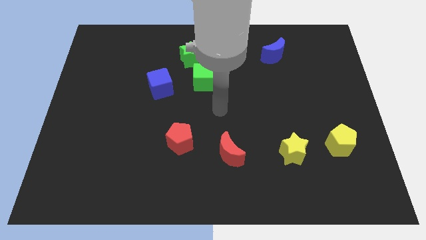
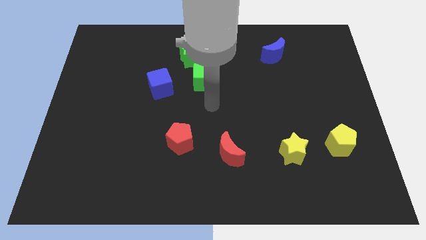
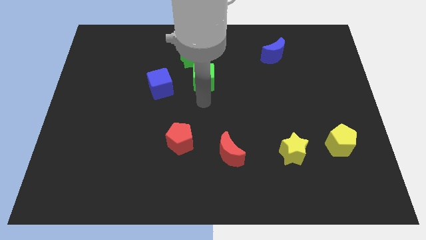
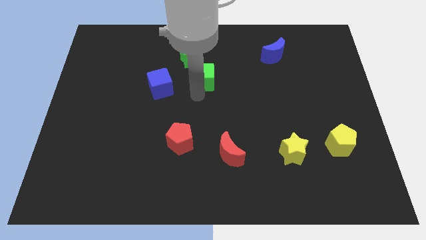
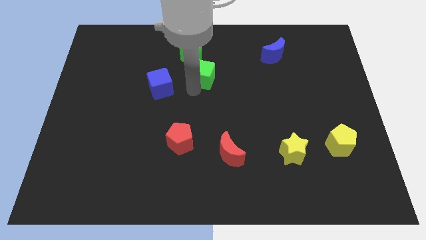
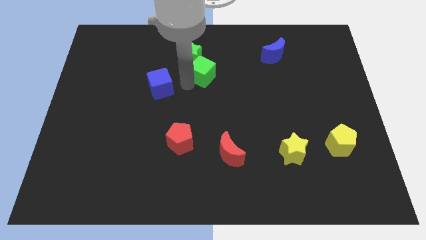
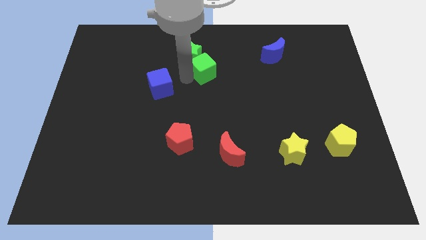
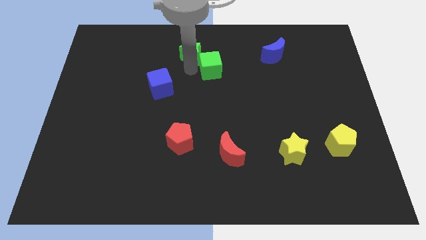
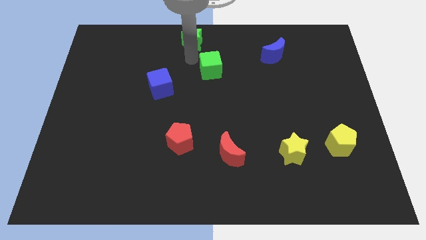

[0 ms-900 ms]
pull the green cube apart from the green star

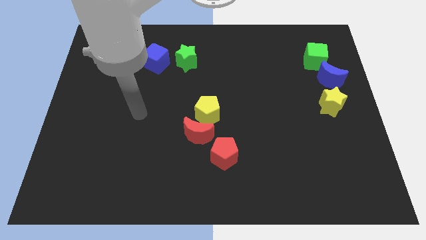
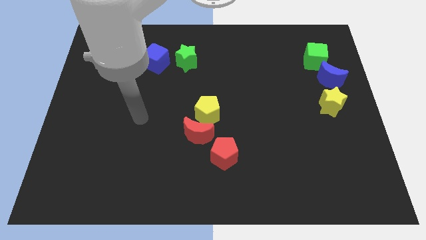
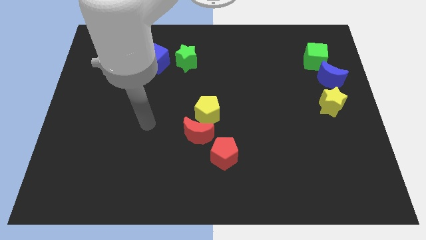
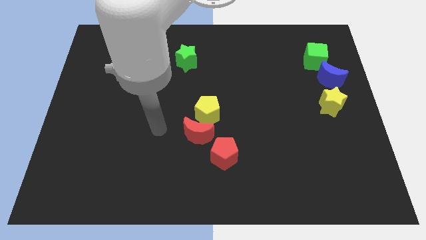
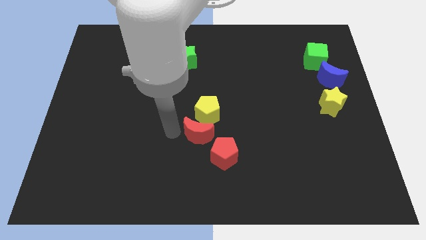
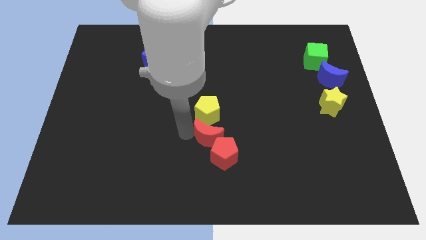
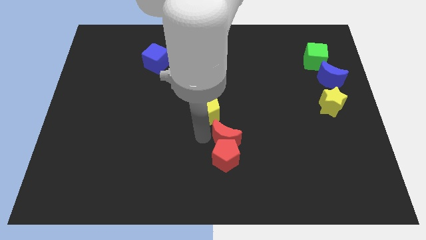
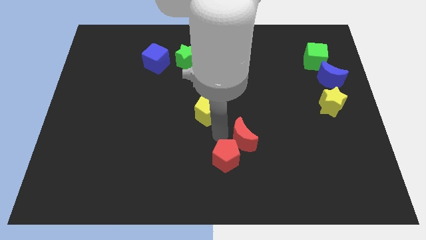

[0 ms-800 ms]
separate the yellow pentagon from the red moon

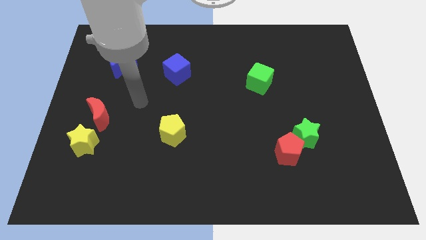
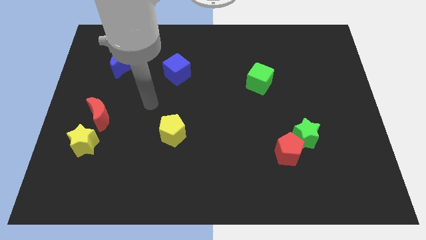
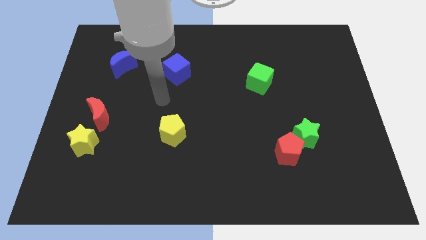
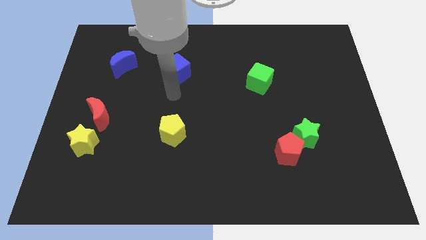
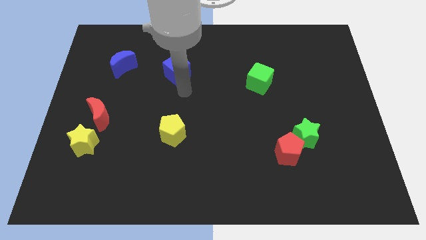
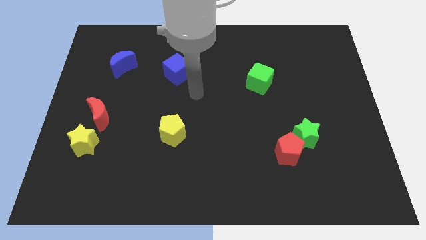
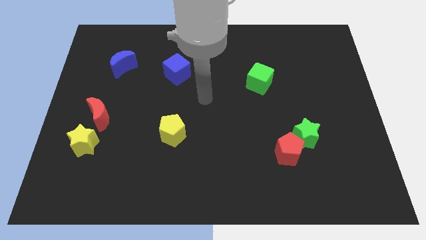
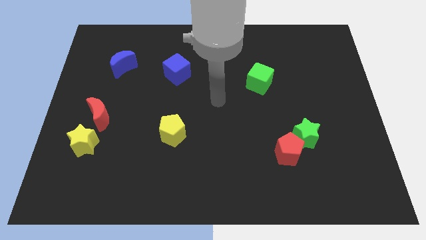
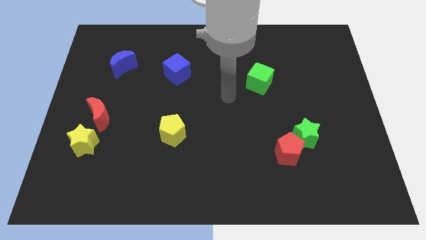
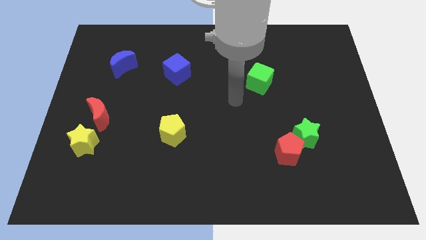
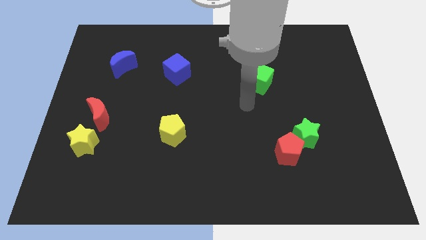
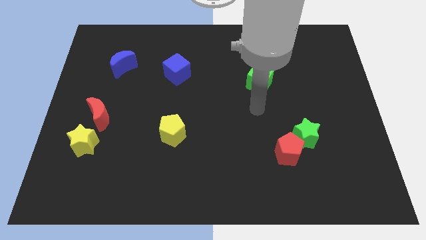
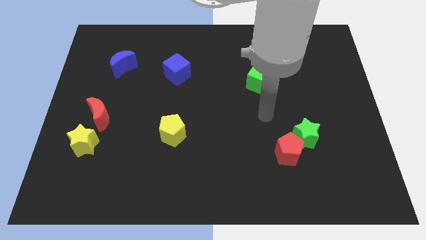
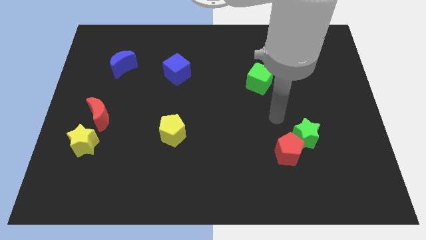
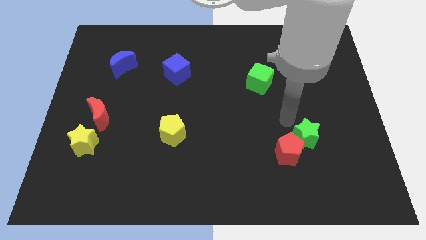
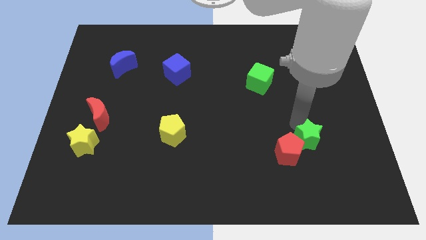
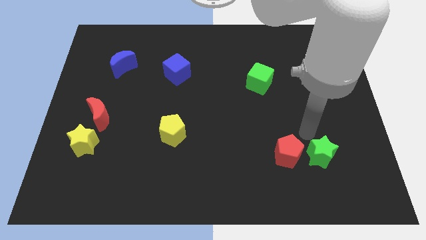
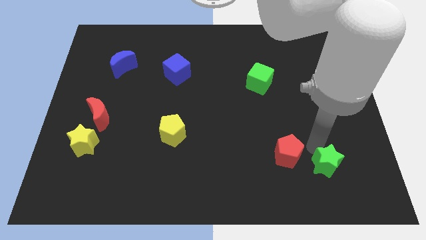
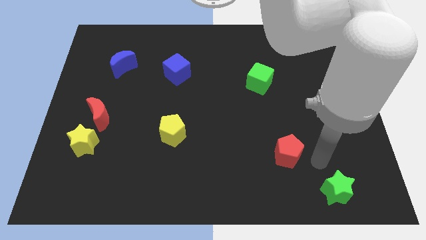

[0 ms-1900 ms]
pull the red pentagon apart from the green star

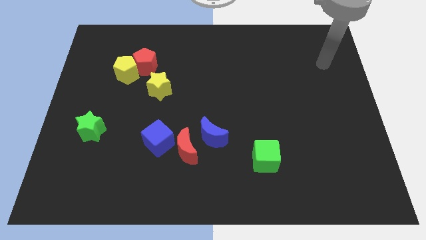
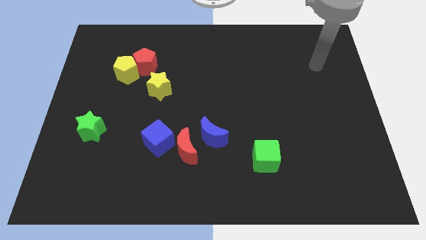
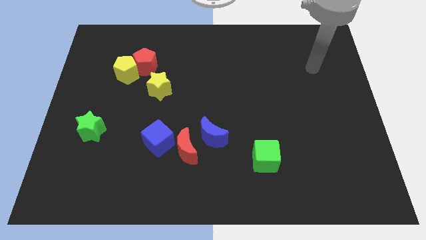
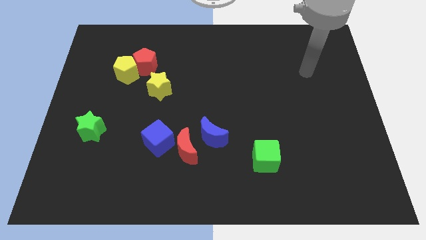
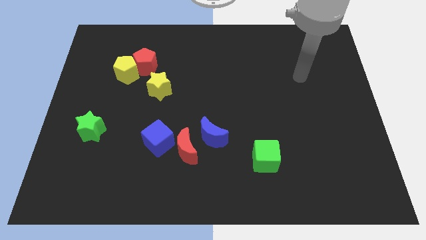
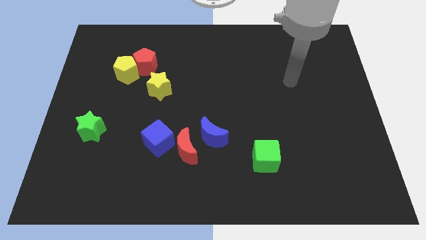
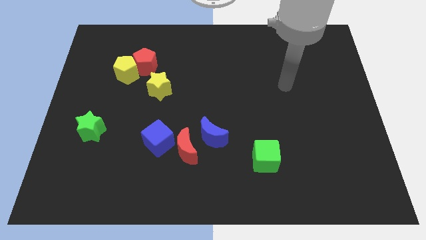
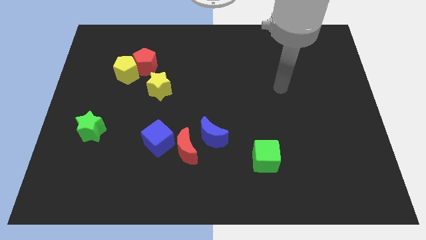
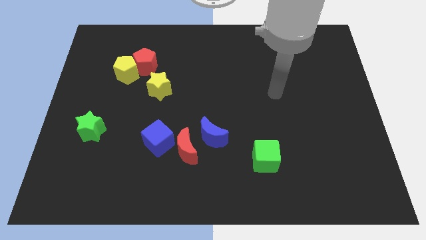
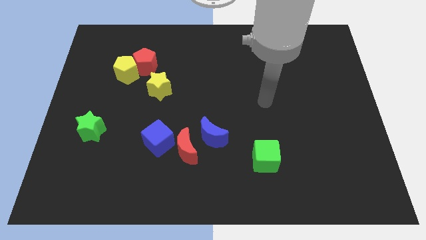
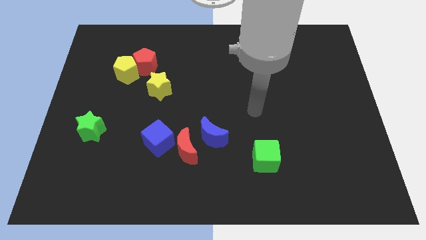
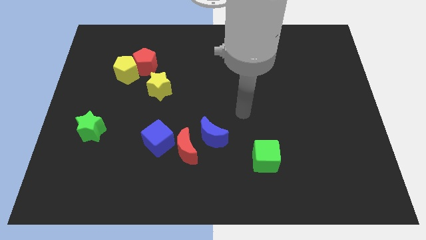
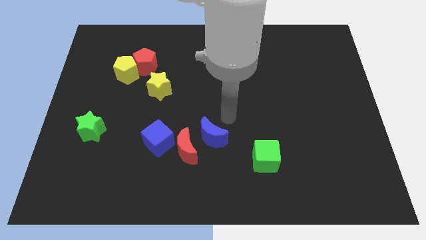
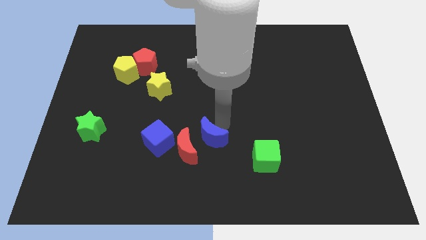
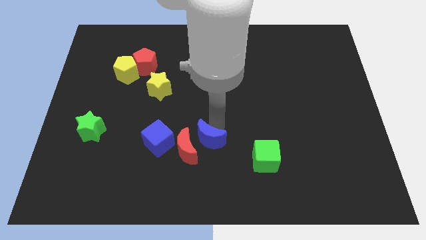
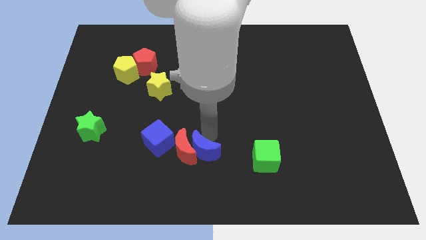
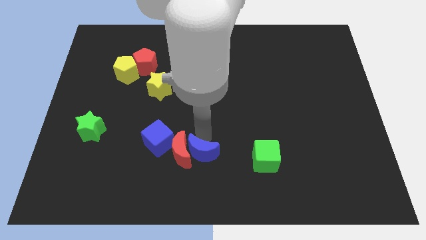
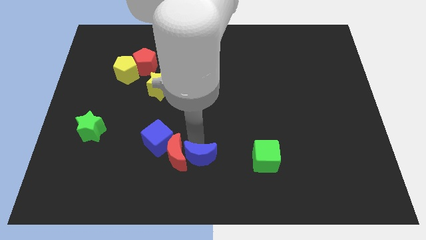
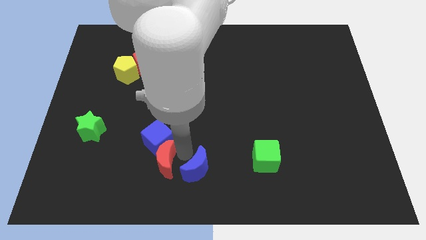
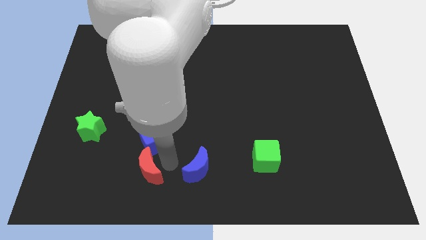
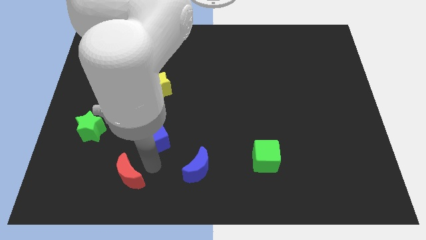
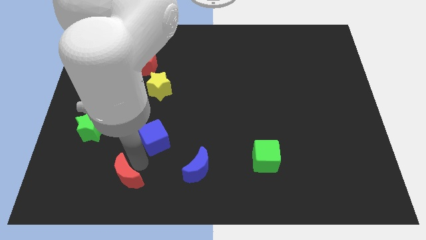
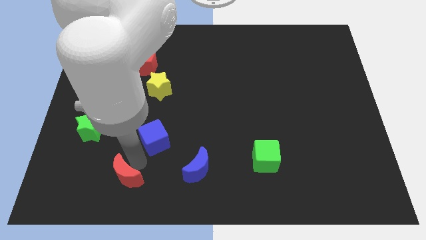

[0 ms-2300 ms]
separate the blue cube from the red moon

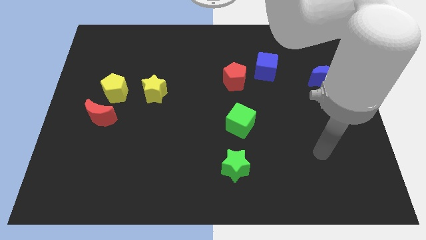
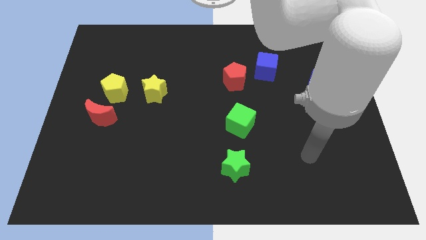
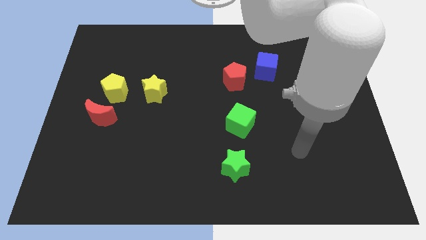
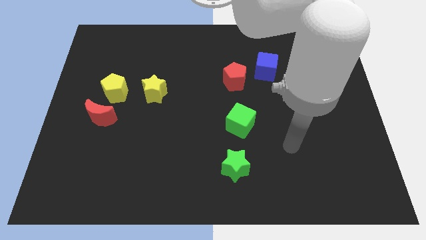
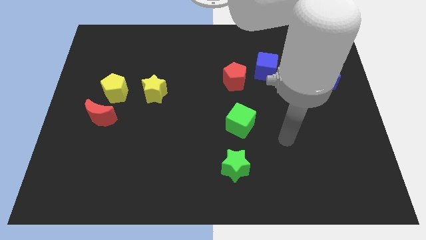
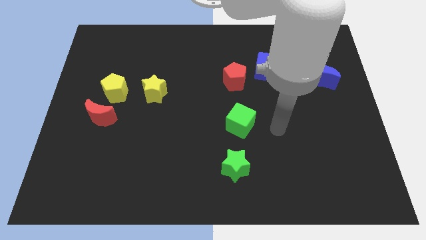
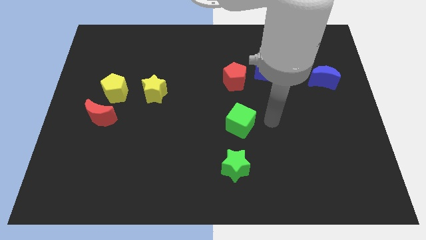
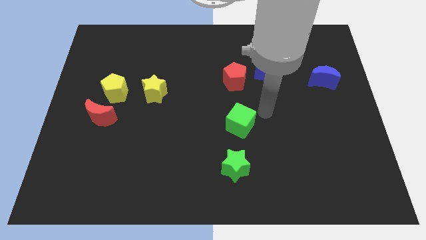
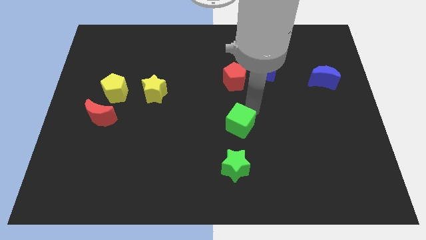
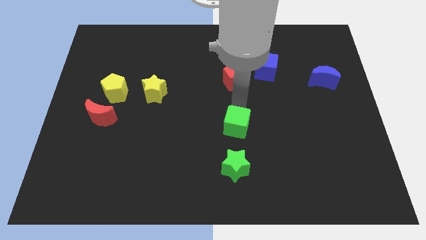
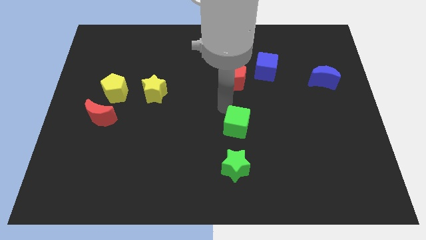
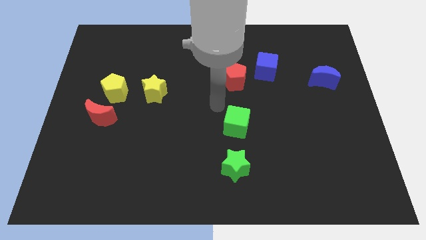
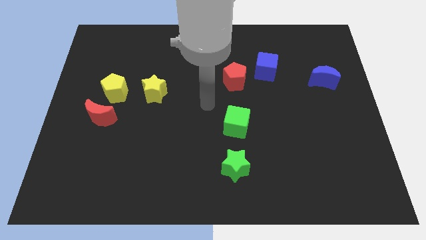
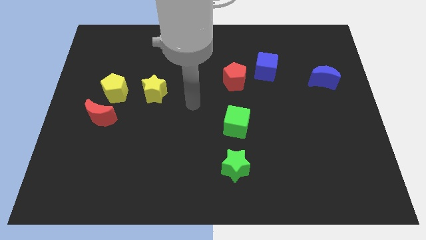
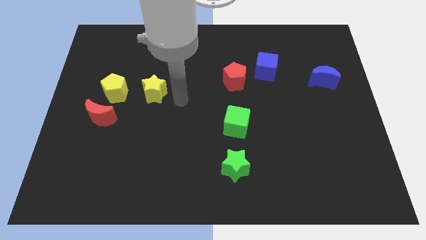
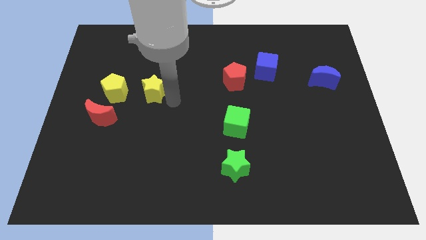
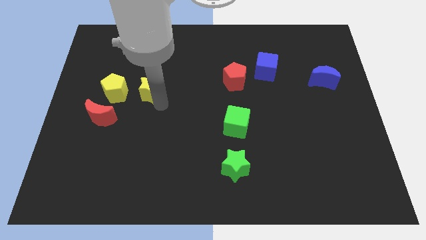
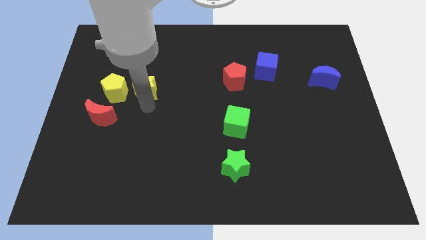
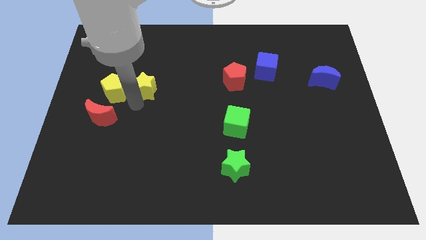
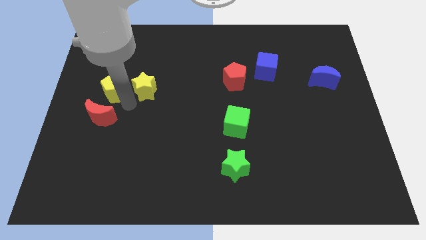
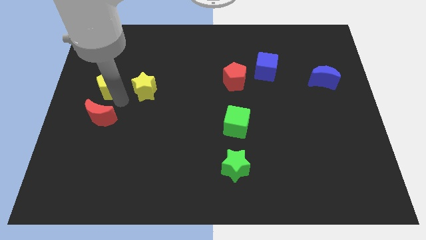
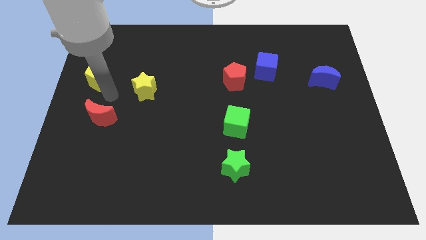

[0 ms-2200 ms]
separate the red moon from the yellow pentagon

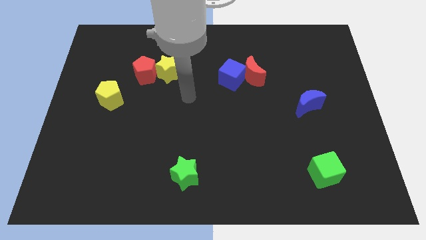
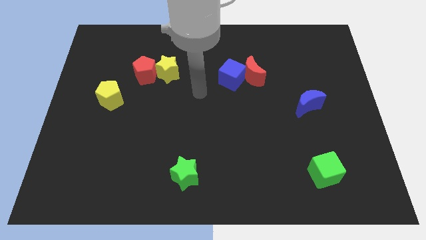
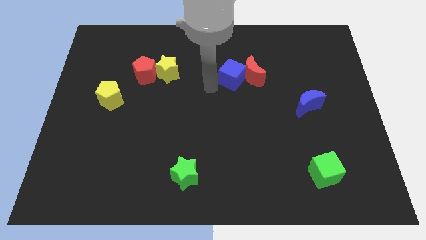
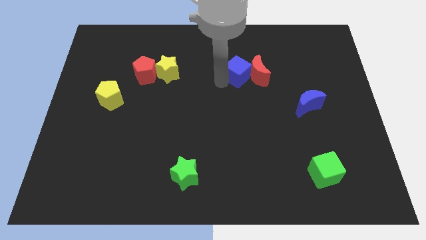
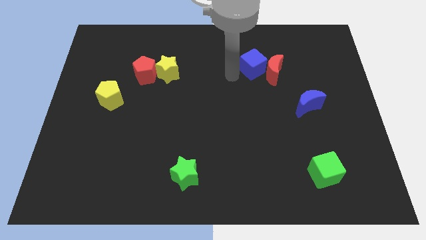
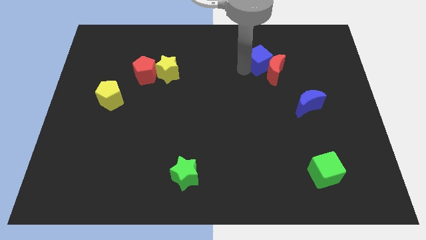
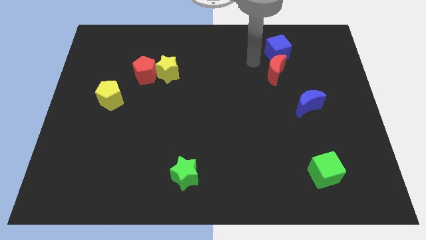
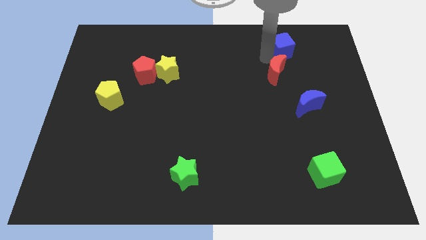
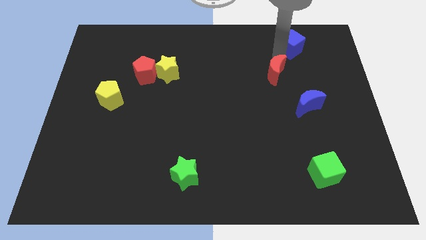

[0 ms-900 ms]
move the red moon away from the blue cube

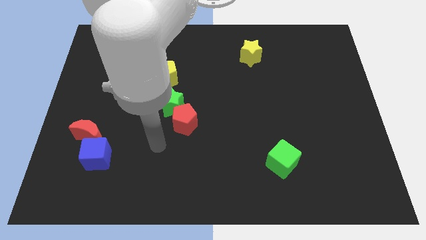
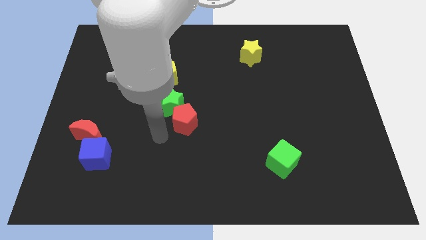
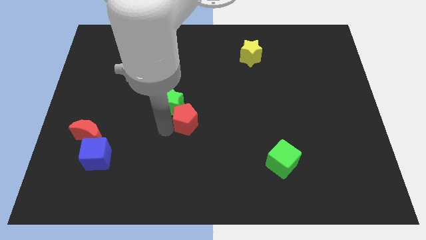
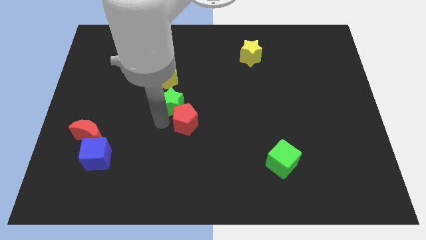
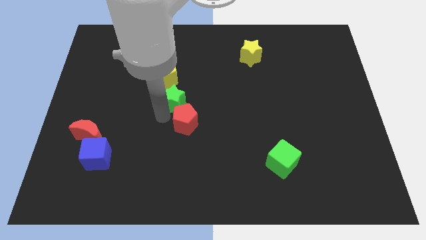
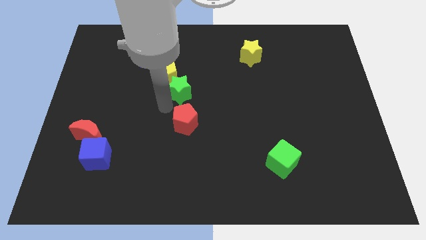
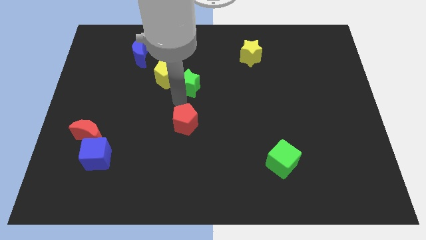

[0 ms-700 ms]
separate the red pentagon from the green star
